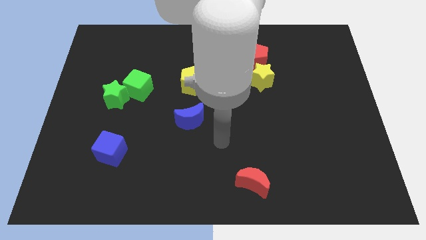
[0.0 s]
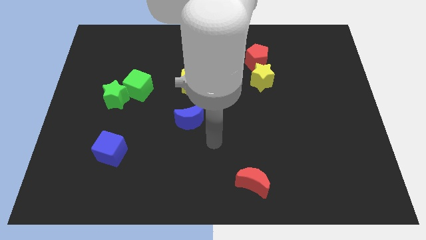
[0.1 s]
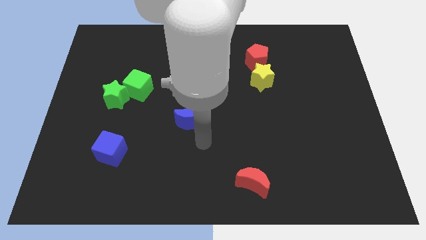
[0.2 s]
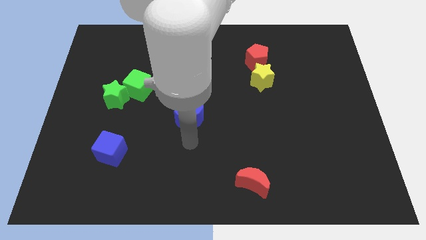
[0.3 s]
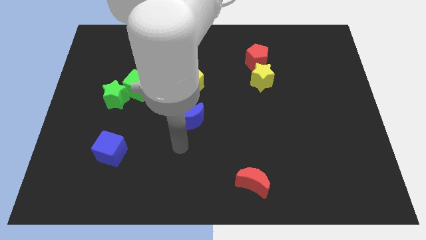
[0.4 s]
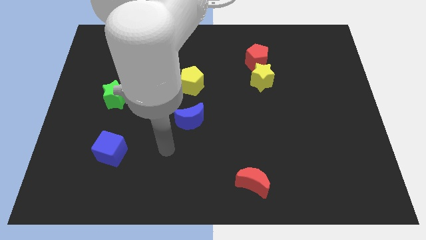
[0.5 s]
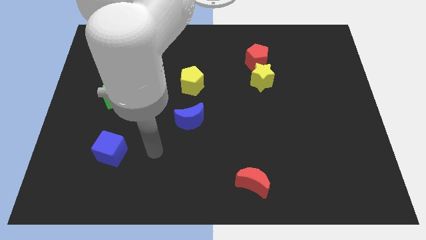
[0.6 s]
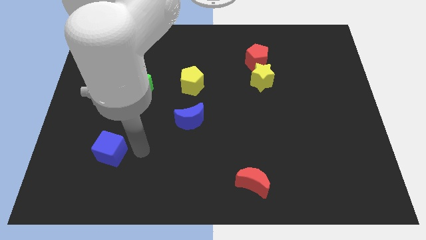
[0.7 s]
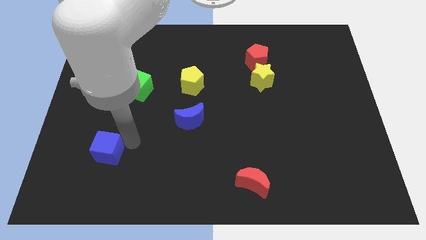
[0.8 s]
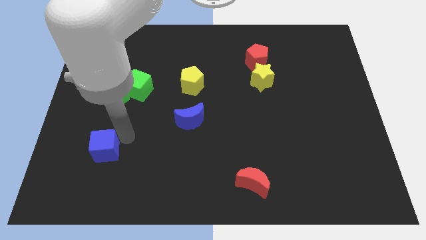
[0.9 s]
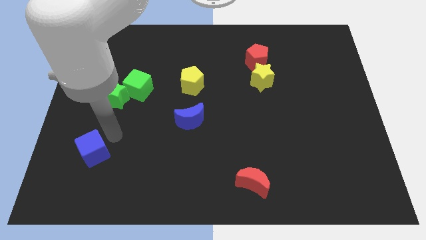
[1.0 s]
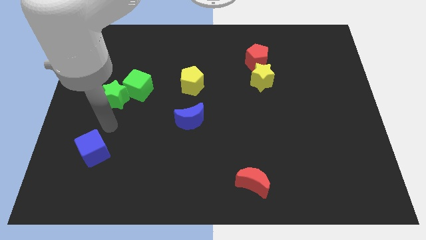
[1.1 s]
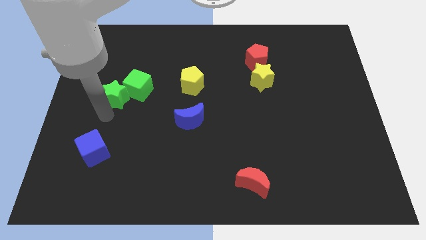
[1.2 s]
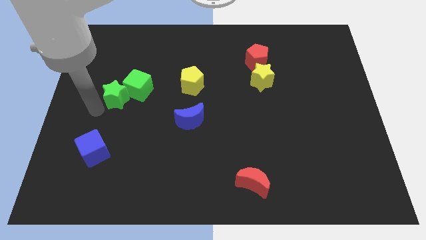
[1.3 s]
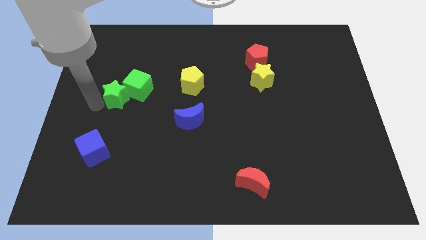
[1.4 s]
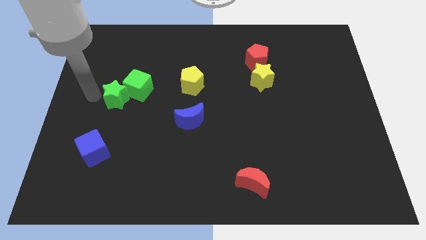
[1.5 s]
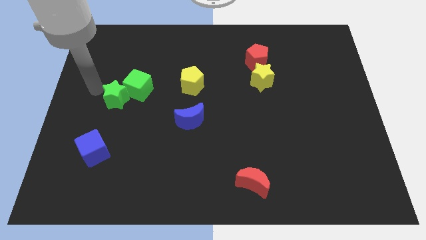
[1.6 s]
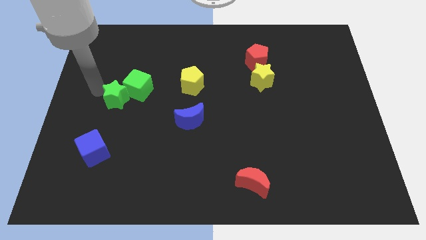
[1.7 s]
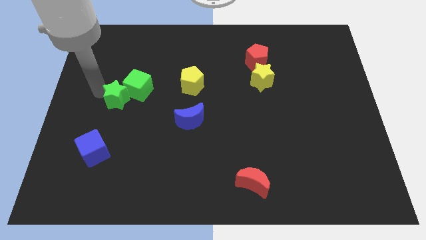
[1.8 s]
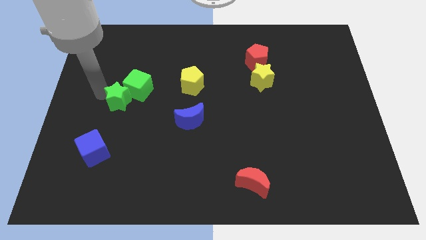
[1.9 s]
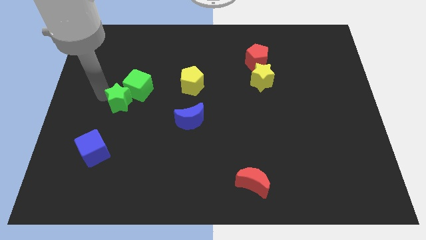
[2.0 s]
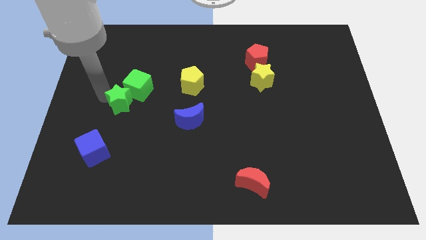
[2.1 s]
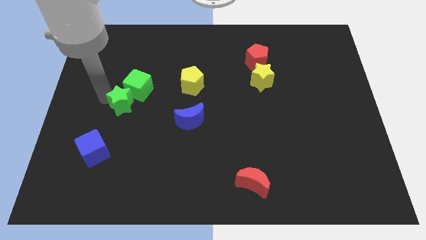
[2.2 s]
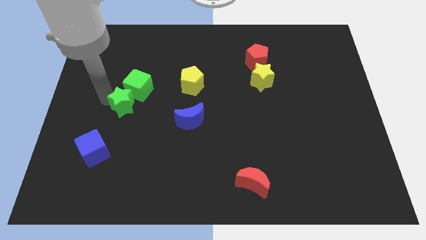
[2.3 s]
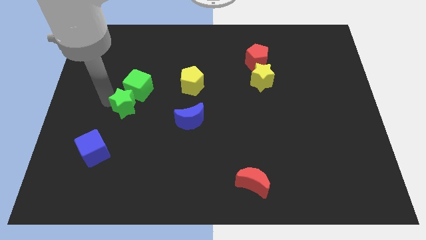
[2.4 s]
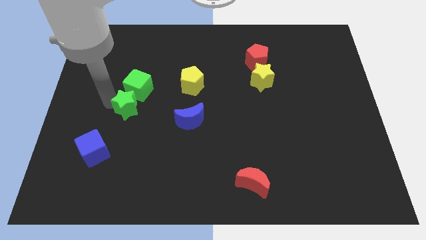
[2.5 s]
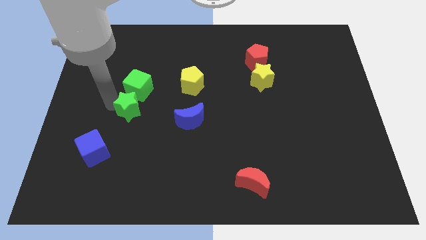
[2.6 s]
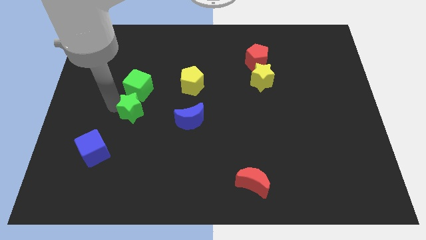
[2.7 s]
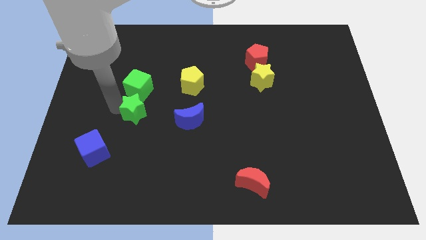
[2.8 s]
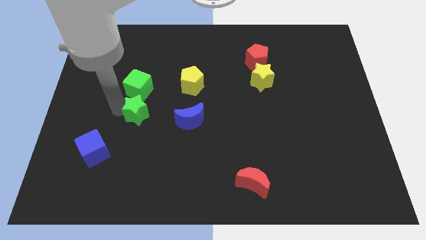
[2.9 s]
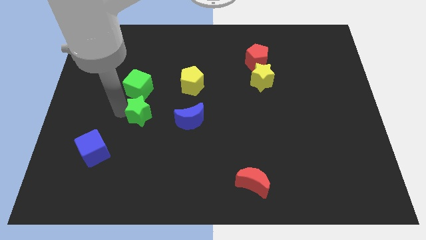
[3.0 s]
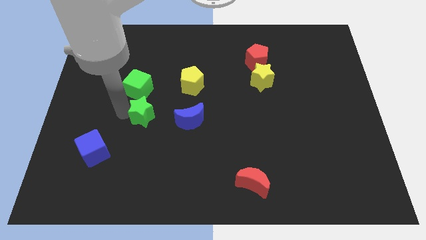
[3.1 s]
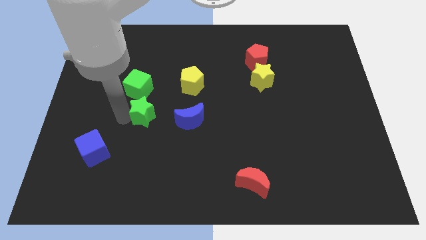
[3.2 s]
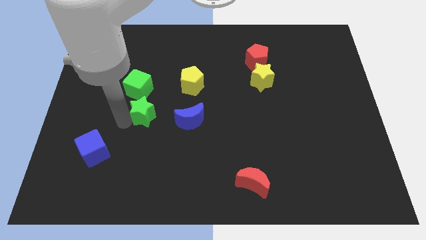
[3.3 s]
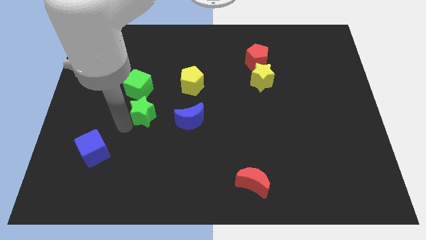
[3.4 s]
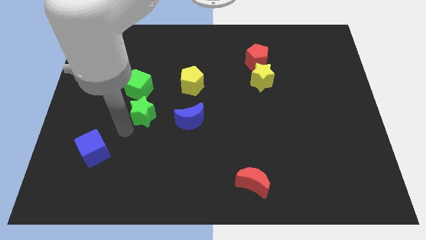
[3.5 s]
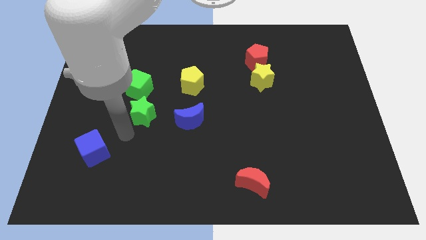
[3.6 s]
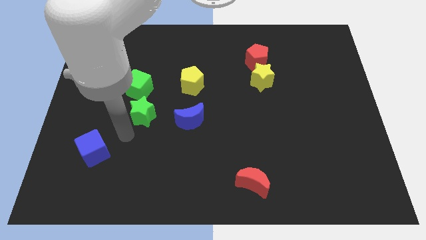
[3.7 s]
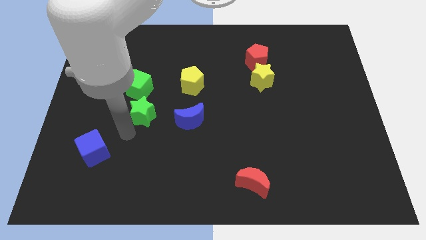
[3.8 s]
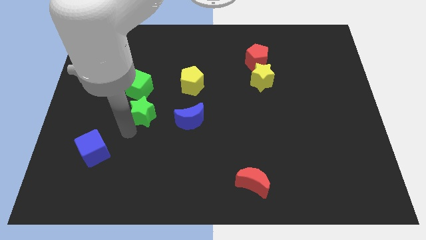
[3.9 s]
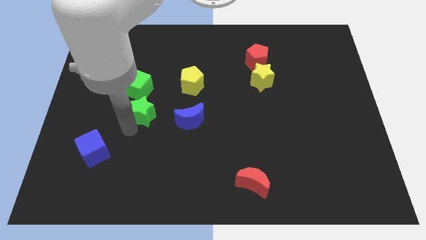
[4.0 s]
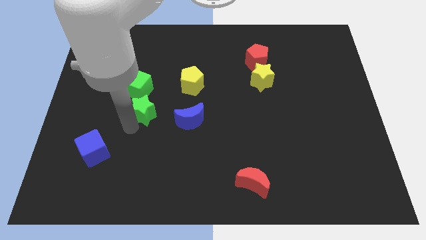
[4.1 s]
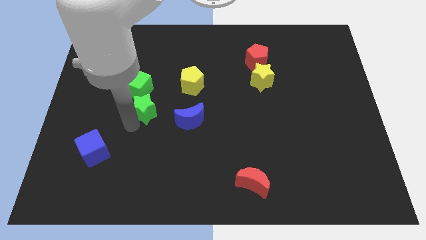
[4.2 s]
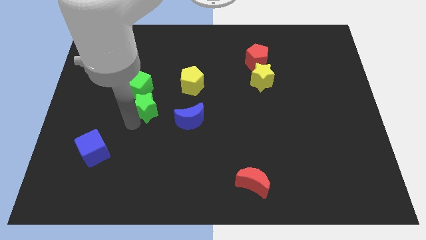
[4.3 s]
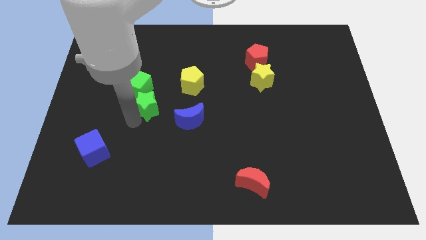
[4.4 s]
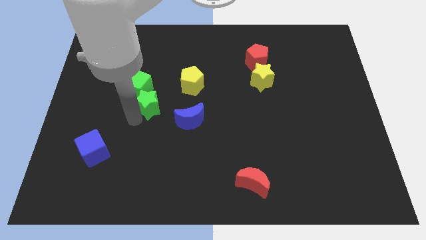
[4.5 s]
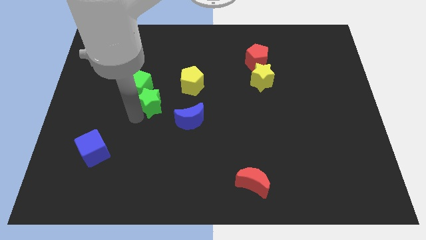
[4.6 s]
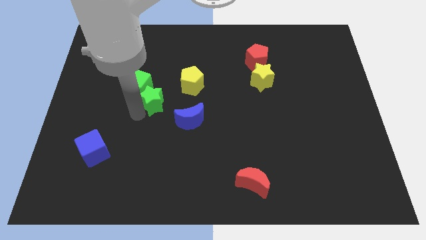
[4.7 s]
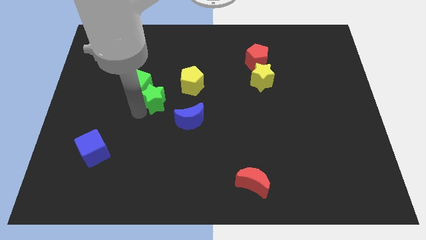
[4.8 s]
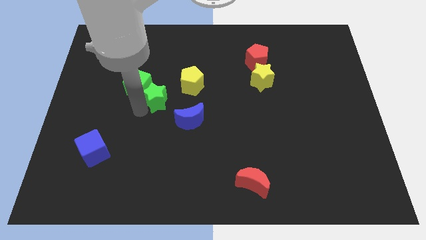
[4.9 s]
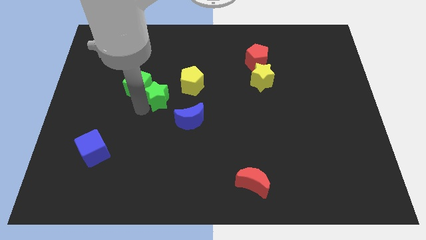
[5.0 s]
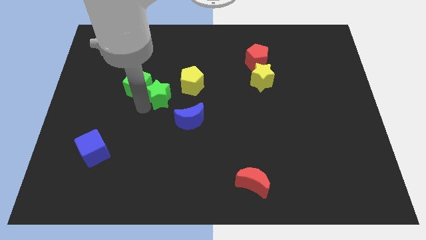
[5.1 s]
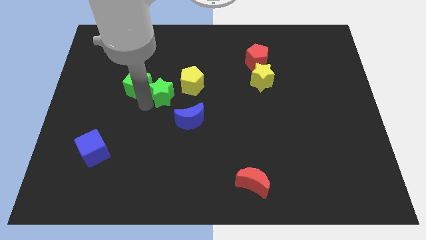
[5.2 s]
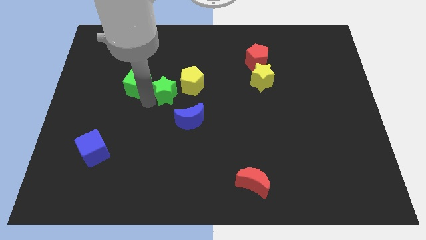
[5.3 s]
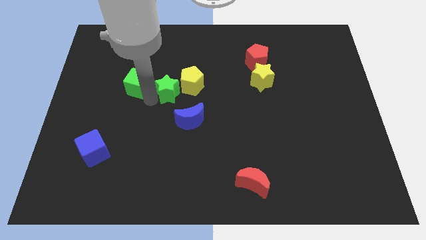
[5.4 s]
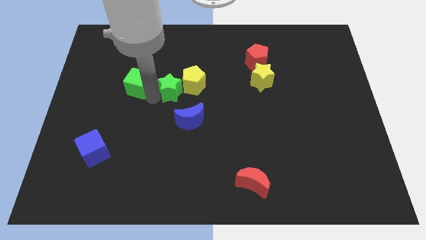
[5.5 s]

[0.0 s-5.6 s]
push the green star close to the yellow pentagon

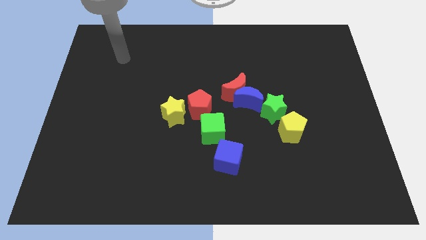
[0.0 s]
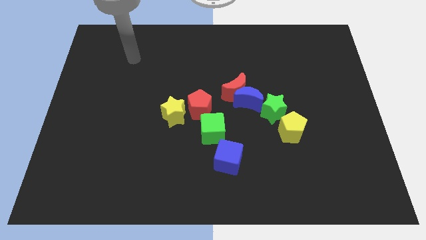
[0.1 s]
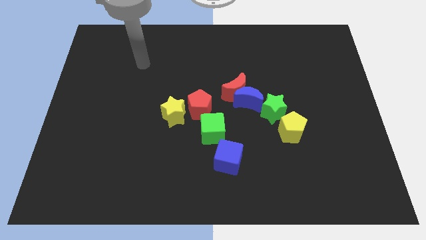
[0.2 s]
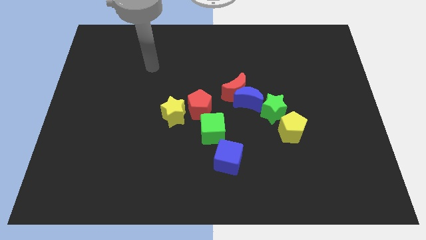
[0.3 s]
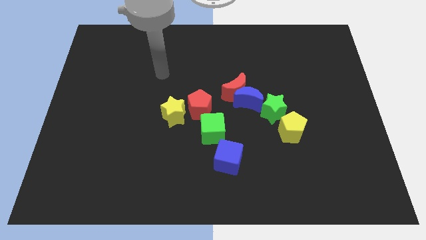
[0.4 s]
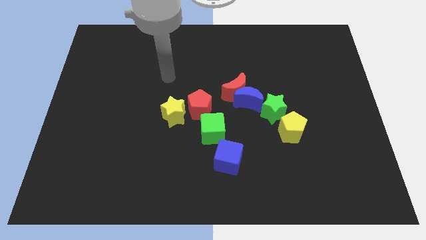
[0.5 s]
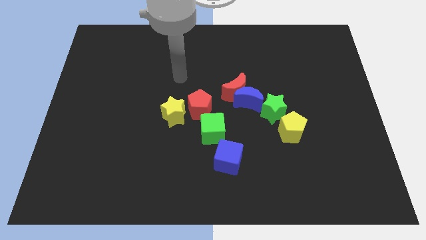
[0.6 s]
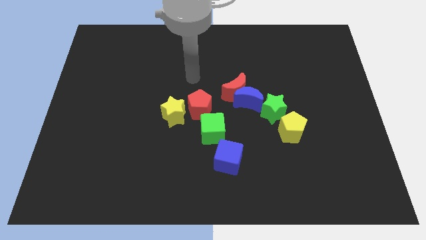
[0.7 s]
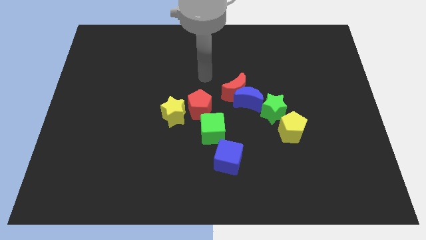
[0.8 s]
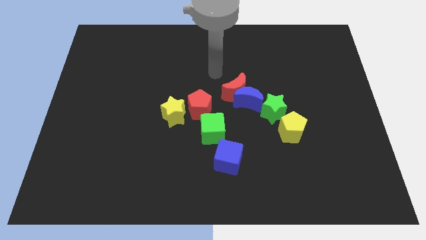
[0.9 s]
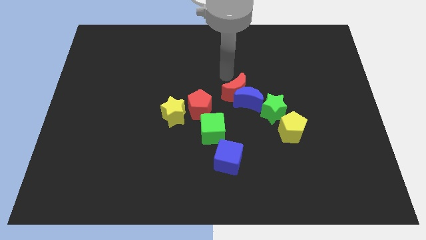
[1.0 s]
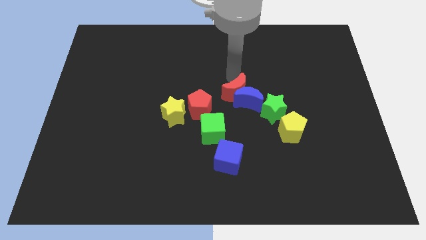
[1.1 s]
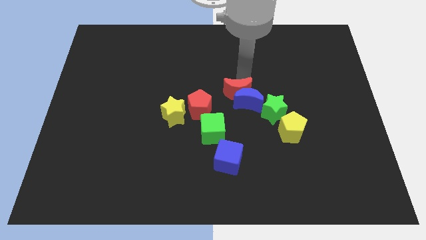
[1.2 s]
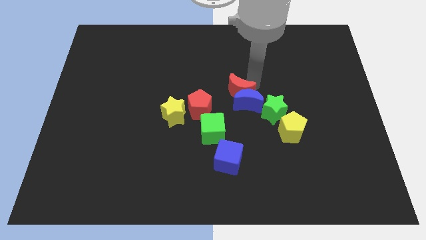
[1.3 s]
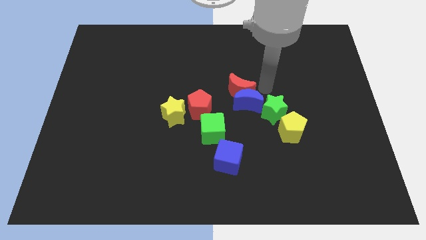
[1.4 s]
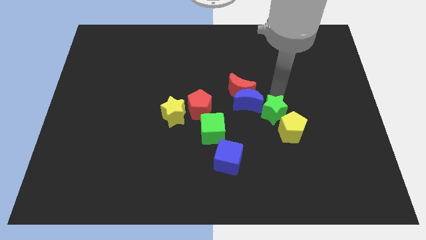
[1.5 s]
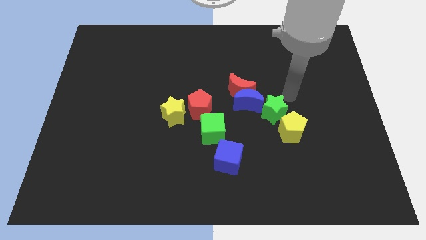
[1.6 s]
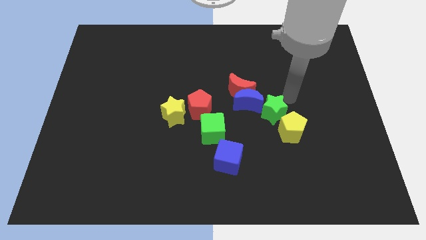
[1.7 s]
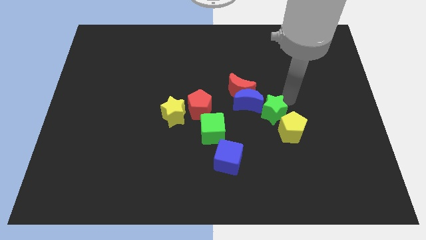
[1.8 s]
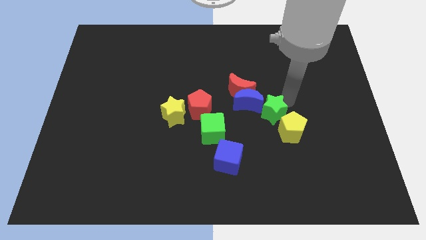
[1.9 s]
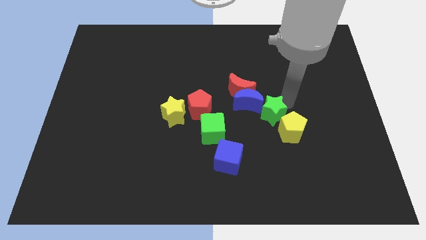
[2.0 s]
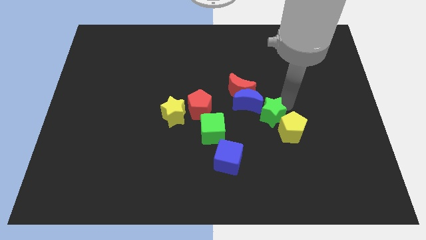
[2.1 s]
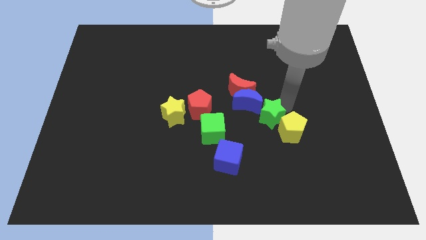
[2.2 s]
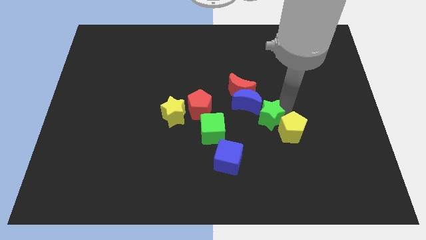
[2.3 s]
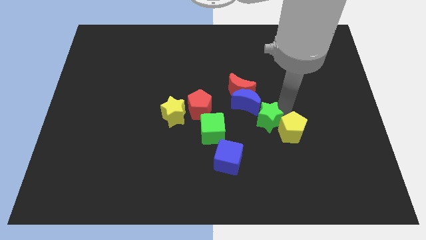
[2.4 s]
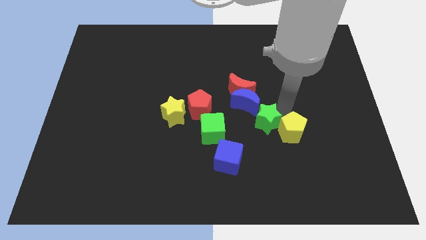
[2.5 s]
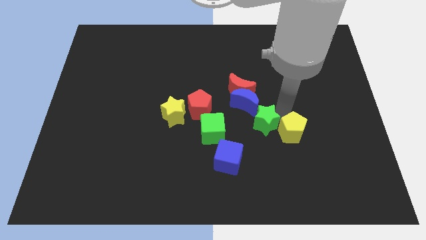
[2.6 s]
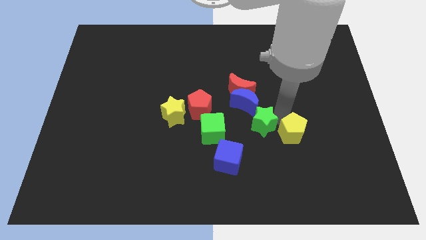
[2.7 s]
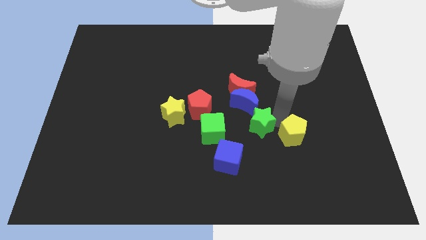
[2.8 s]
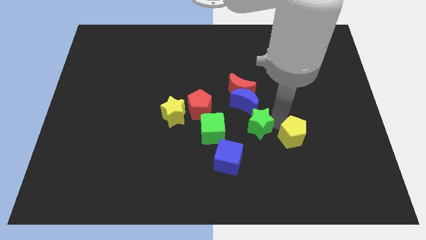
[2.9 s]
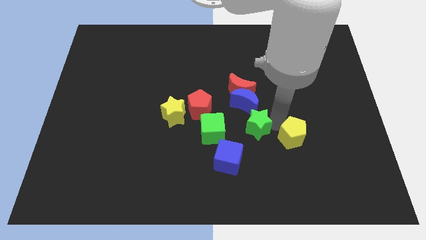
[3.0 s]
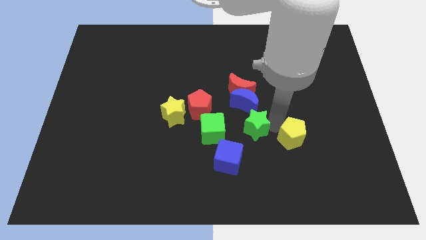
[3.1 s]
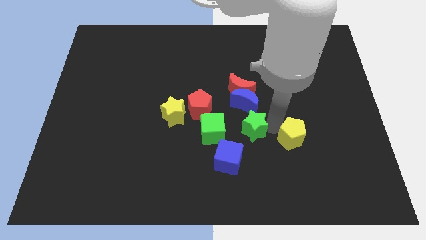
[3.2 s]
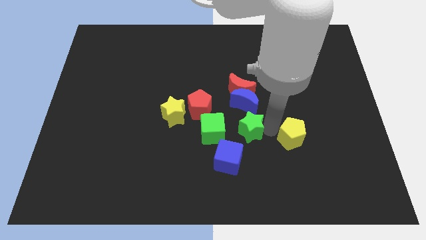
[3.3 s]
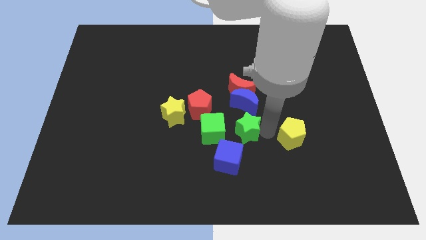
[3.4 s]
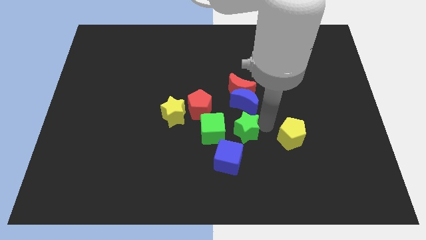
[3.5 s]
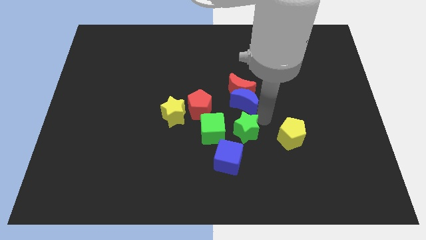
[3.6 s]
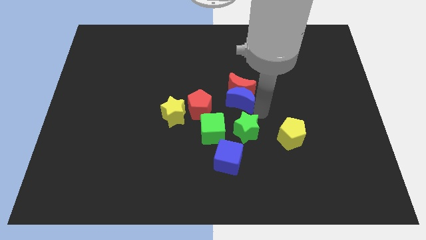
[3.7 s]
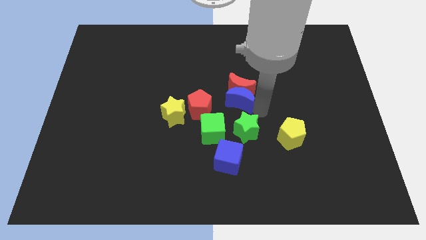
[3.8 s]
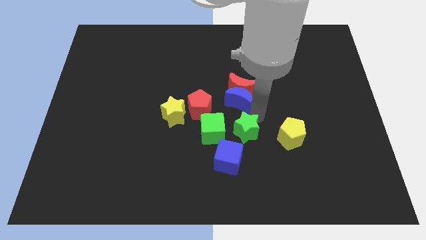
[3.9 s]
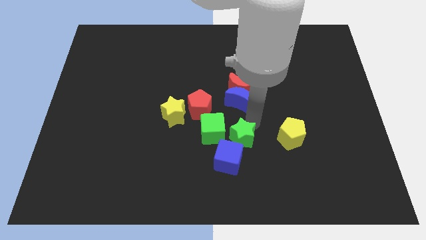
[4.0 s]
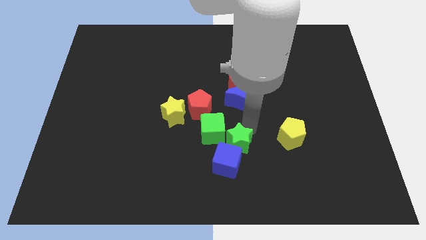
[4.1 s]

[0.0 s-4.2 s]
slide the green star to the blue cube
